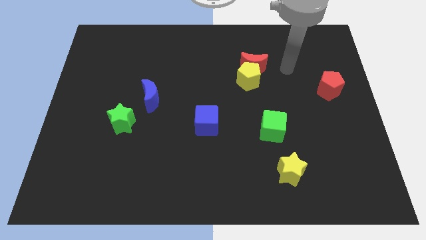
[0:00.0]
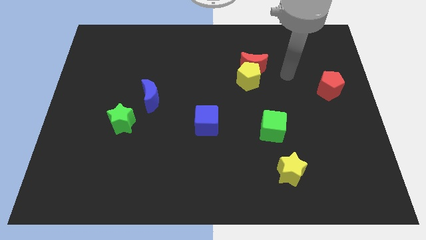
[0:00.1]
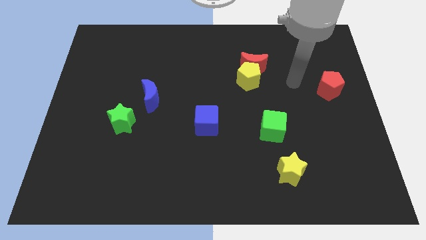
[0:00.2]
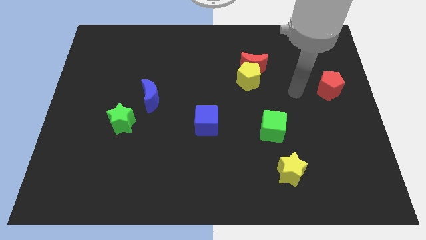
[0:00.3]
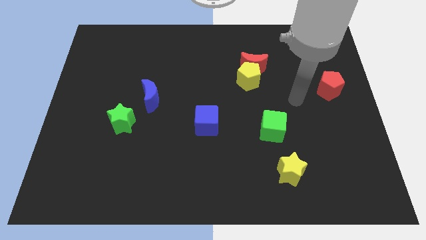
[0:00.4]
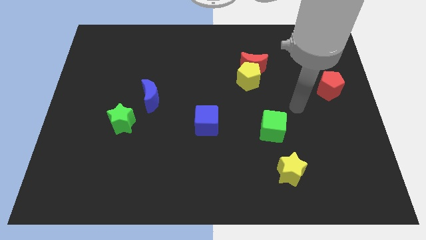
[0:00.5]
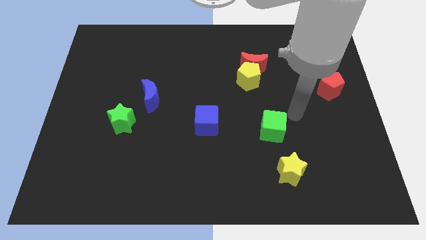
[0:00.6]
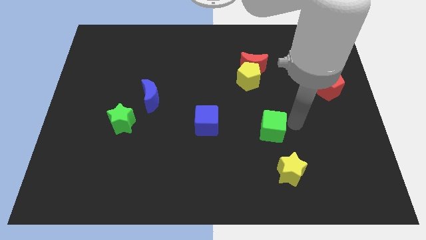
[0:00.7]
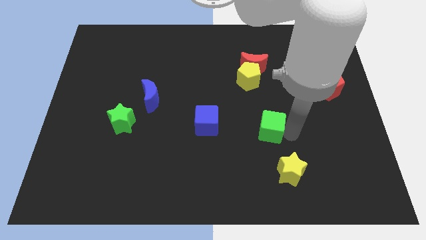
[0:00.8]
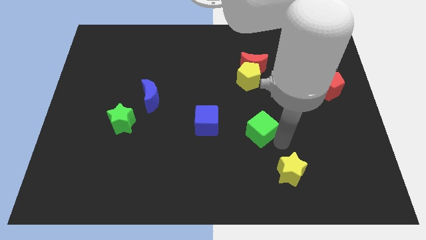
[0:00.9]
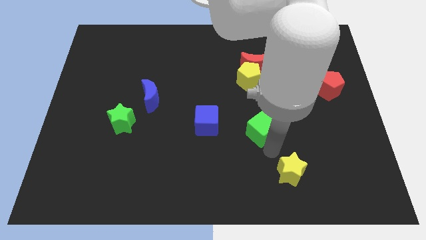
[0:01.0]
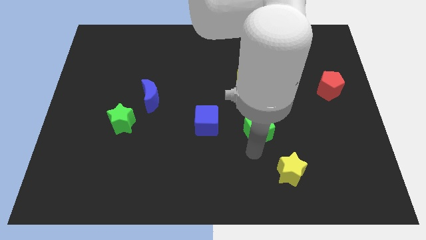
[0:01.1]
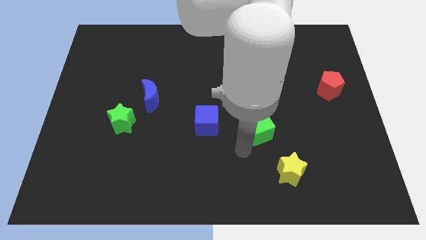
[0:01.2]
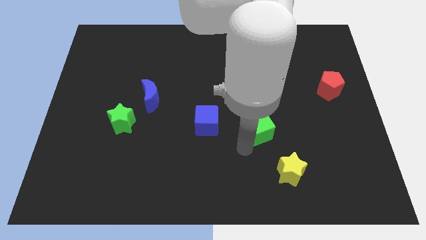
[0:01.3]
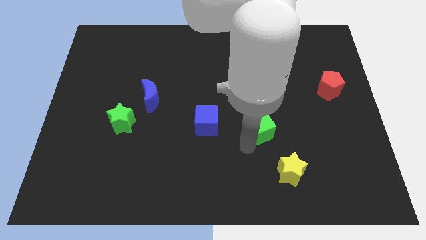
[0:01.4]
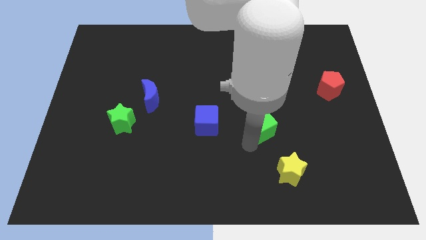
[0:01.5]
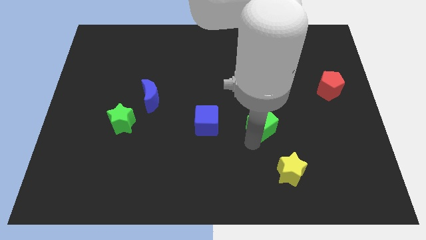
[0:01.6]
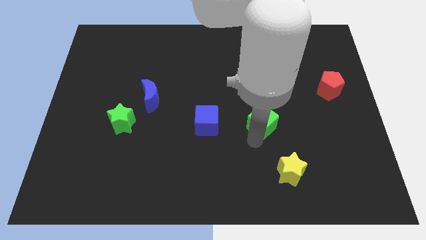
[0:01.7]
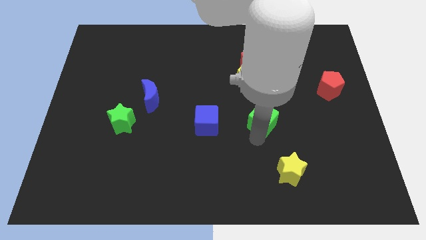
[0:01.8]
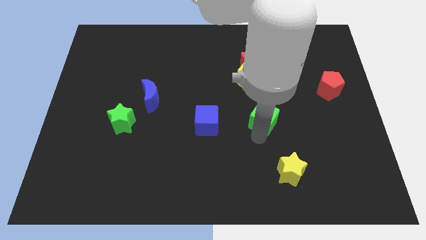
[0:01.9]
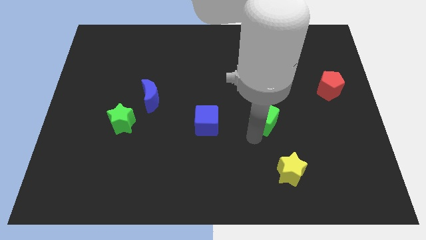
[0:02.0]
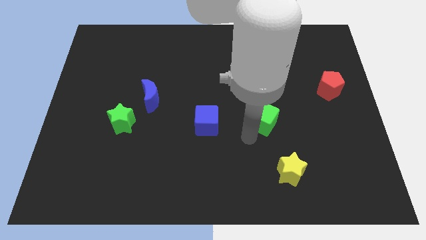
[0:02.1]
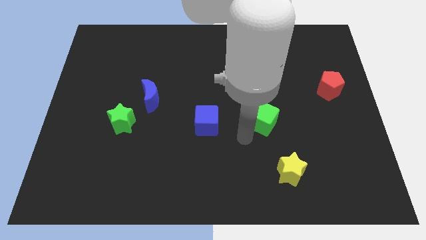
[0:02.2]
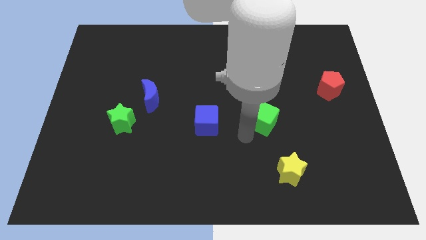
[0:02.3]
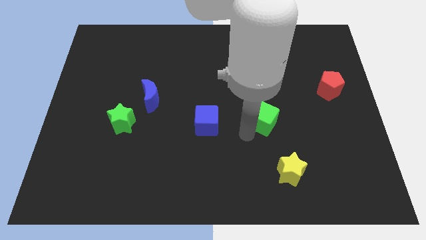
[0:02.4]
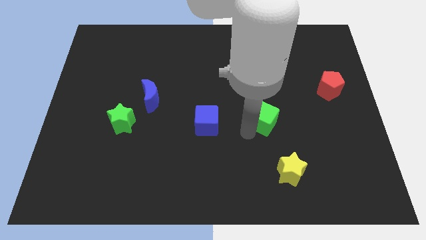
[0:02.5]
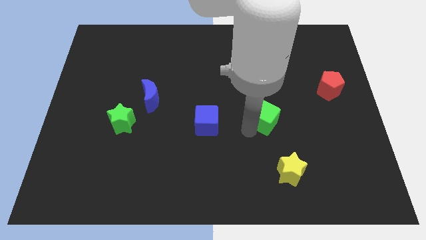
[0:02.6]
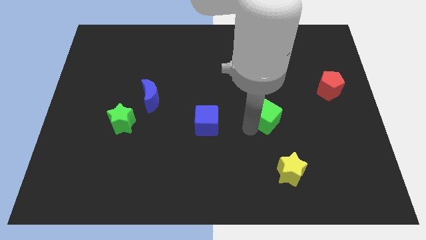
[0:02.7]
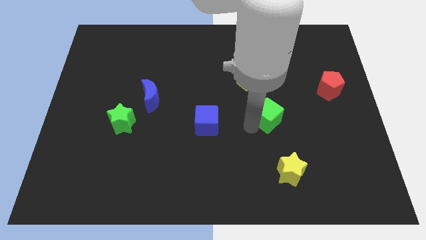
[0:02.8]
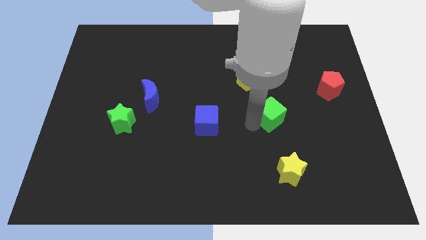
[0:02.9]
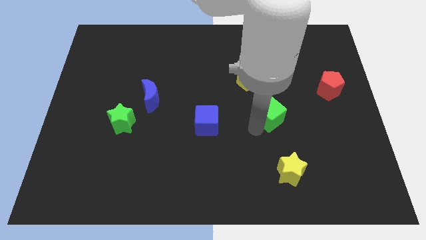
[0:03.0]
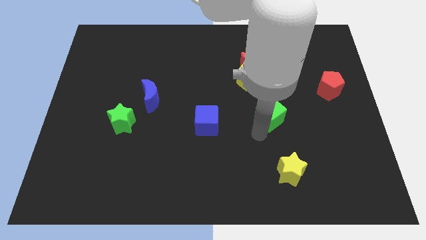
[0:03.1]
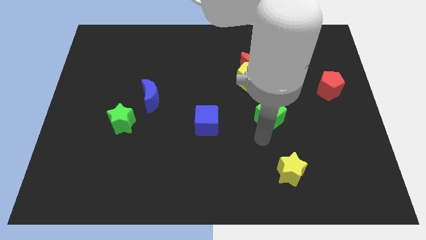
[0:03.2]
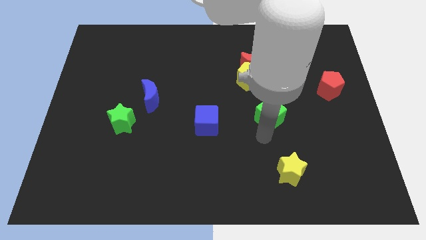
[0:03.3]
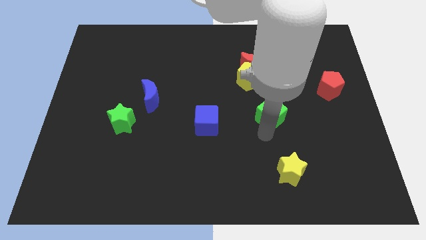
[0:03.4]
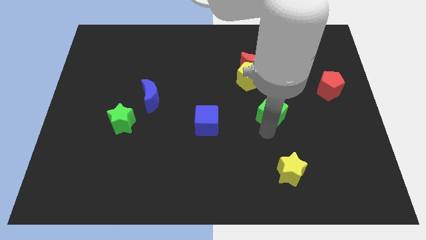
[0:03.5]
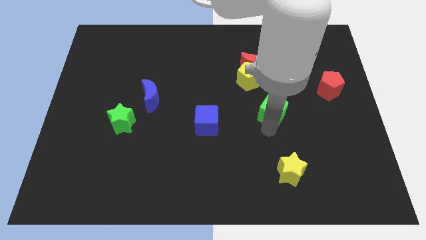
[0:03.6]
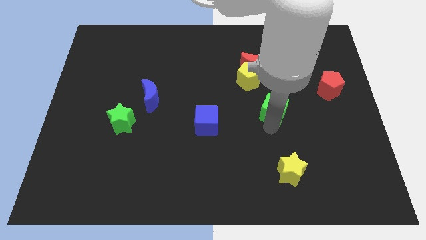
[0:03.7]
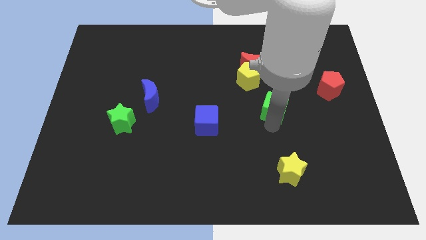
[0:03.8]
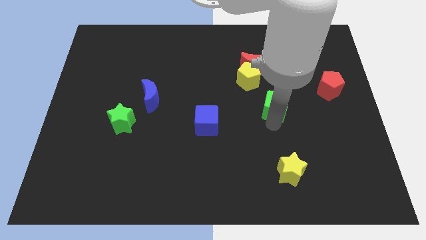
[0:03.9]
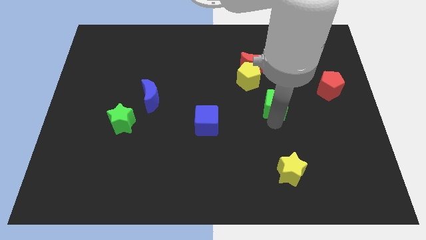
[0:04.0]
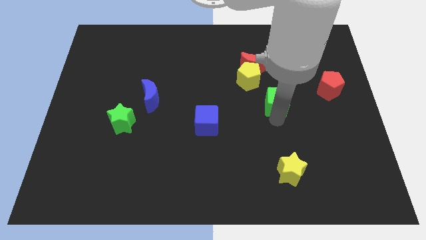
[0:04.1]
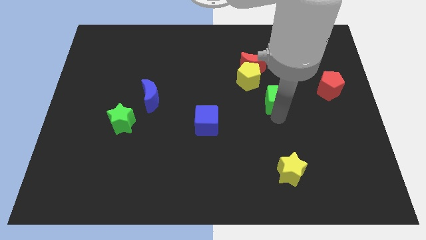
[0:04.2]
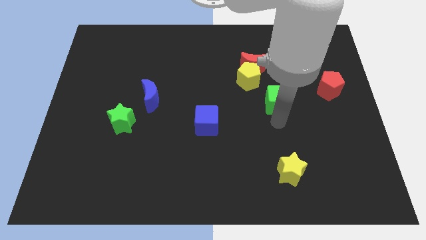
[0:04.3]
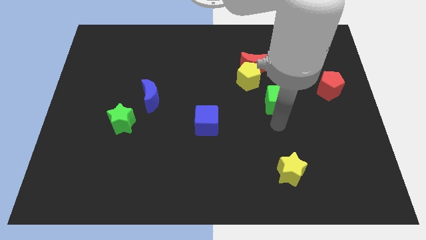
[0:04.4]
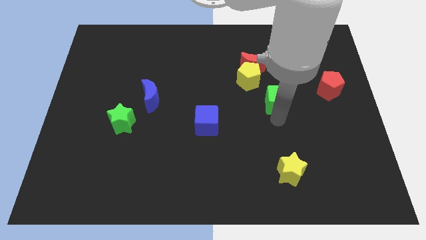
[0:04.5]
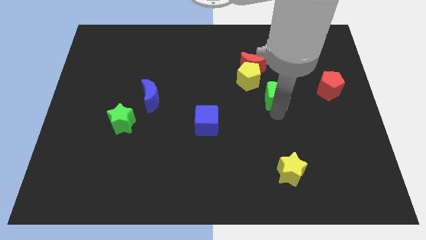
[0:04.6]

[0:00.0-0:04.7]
slide the green cube diagonally down and to the right of the red moon

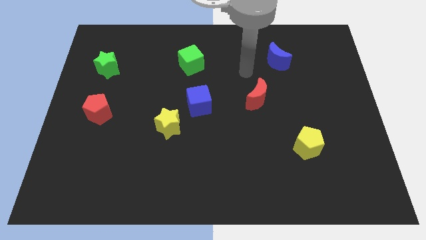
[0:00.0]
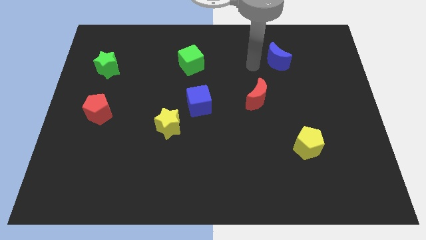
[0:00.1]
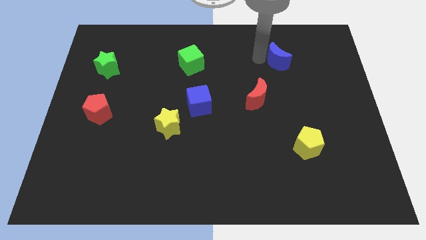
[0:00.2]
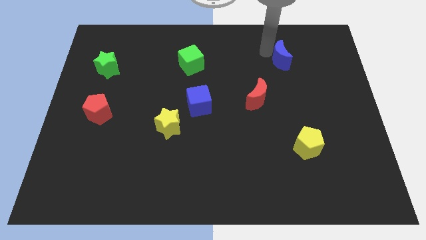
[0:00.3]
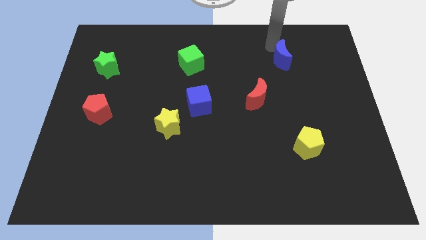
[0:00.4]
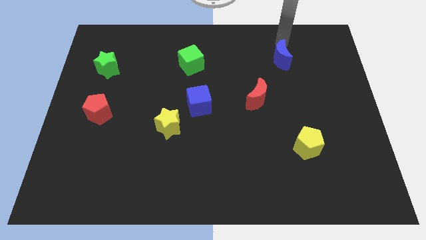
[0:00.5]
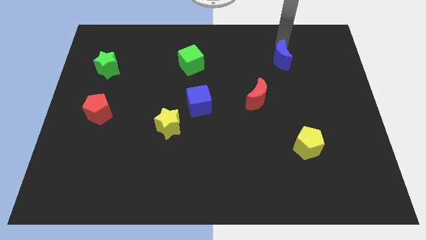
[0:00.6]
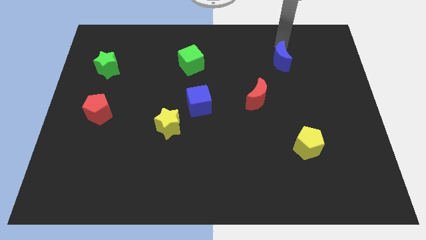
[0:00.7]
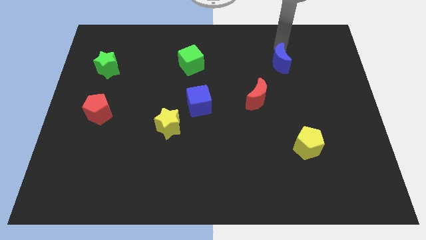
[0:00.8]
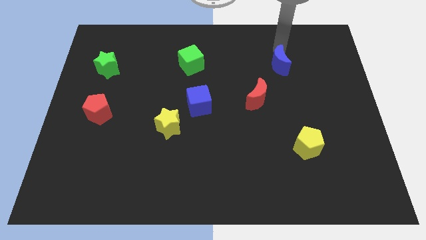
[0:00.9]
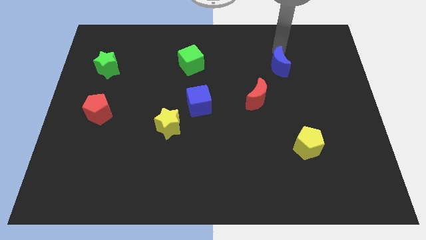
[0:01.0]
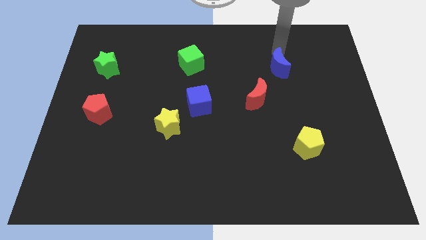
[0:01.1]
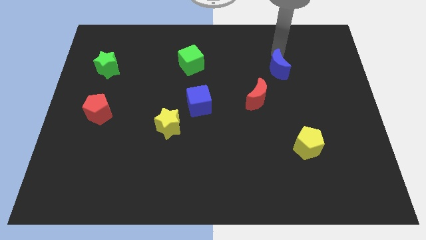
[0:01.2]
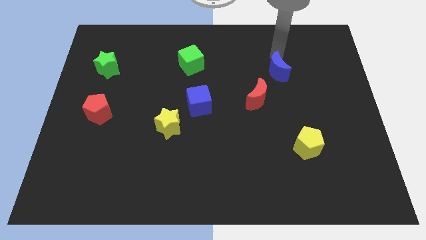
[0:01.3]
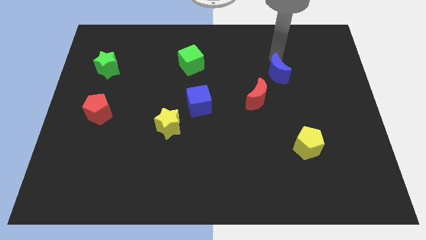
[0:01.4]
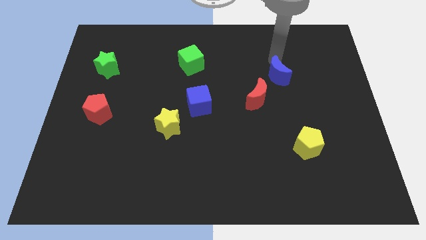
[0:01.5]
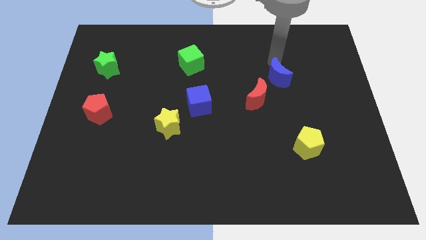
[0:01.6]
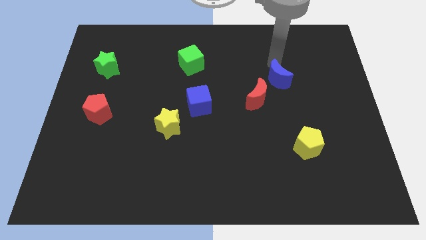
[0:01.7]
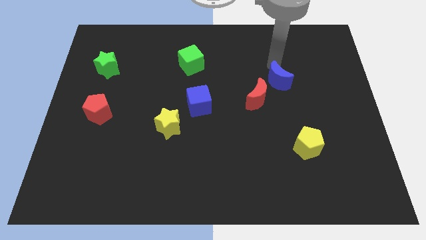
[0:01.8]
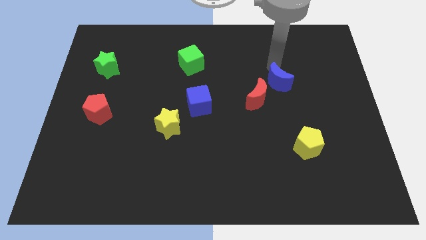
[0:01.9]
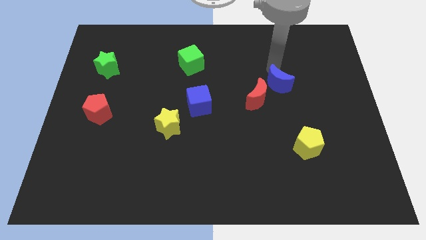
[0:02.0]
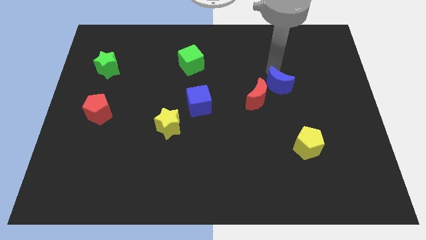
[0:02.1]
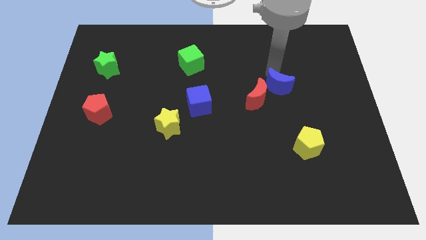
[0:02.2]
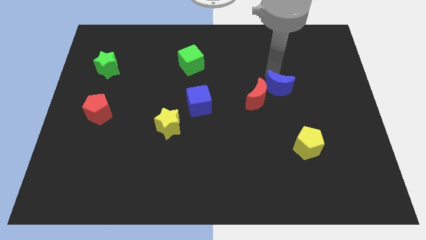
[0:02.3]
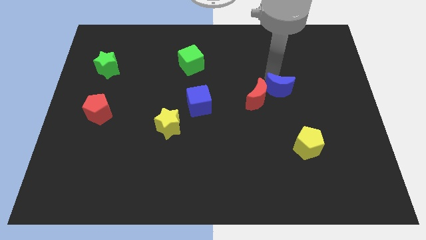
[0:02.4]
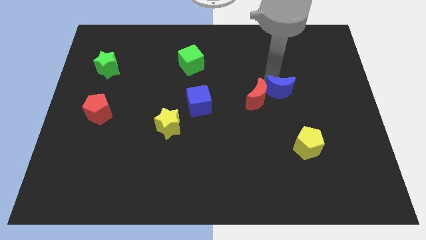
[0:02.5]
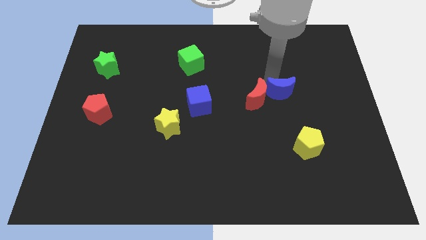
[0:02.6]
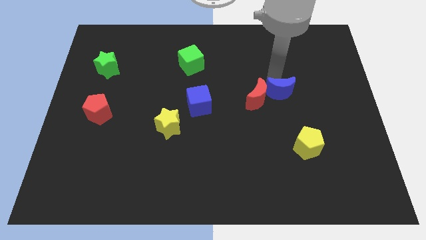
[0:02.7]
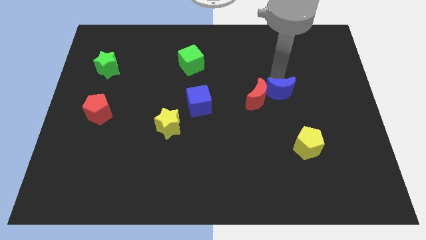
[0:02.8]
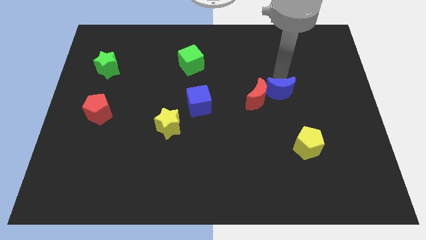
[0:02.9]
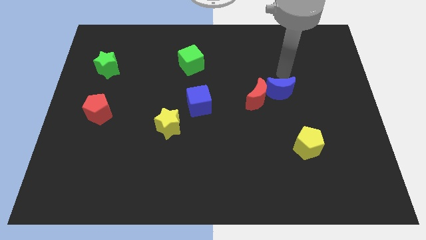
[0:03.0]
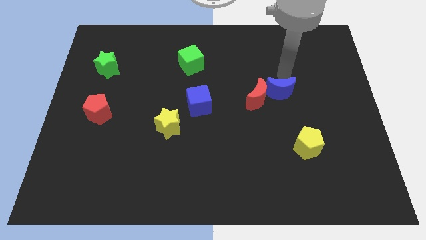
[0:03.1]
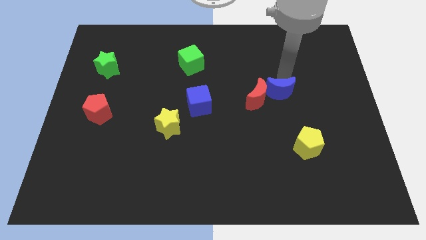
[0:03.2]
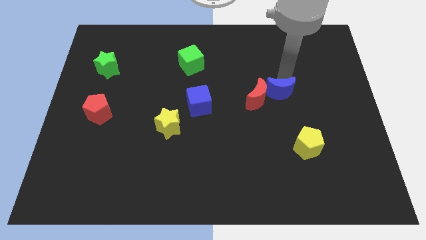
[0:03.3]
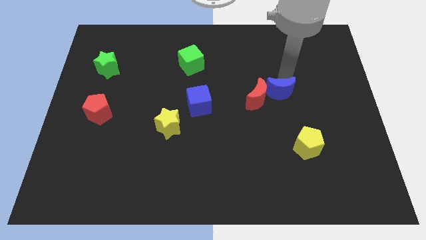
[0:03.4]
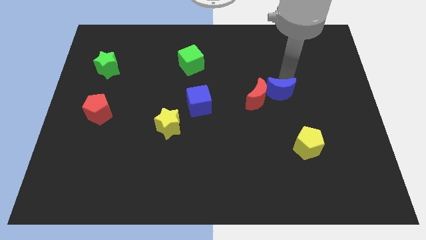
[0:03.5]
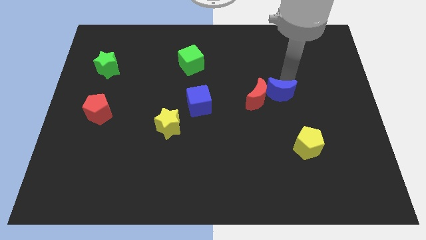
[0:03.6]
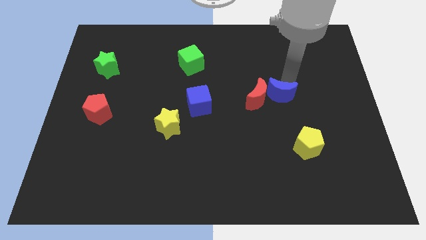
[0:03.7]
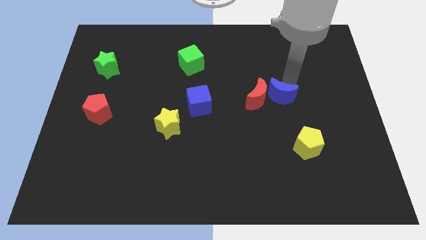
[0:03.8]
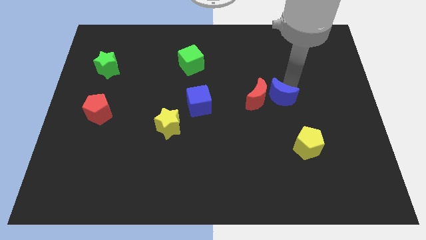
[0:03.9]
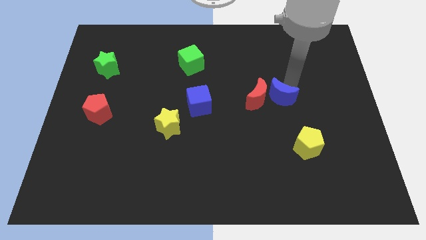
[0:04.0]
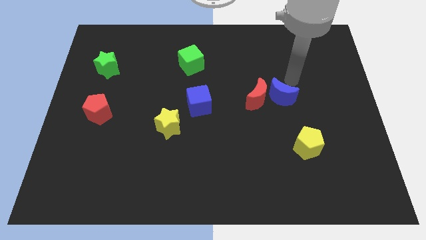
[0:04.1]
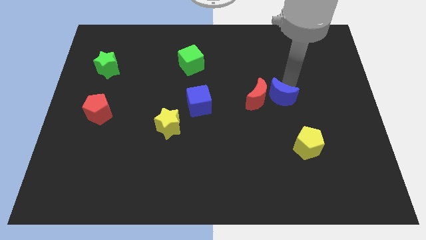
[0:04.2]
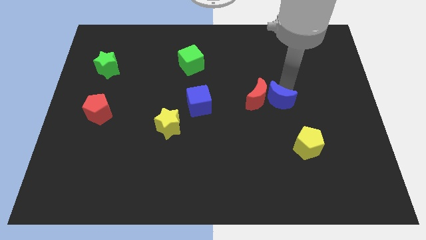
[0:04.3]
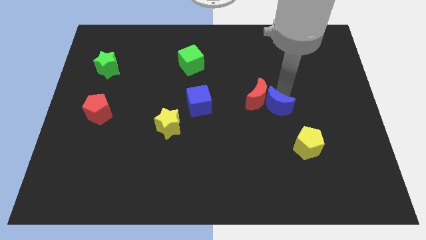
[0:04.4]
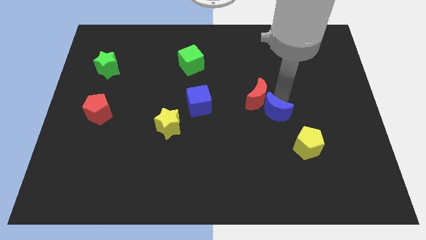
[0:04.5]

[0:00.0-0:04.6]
move the blue moon below the red moon
